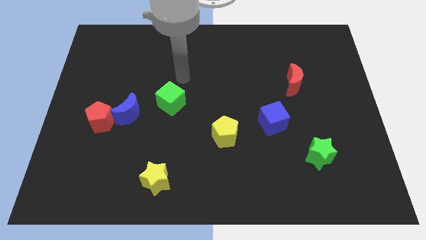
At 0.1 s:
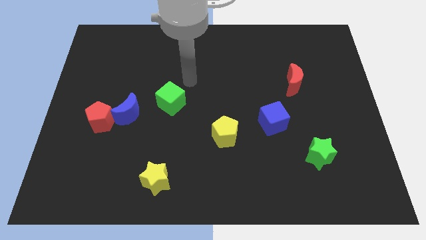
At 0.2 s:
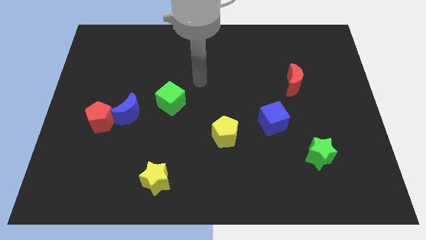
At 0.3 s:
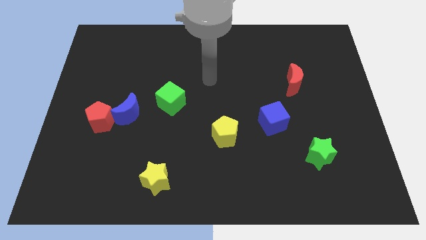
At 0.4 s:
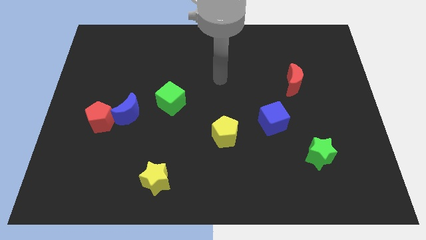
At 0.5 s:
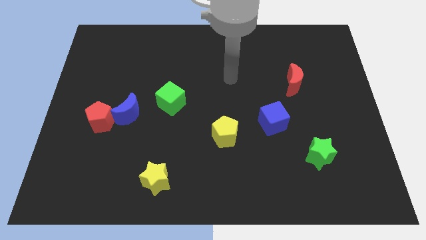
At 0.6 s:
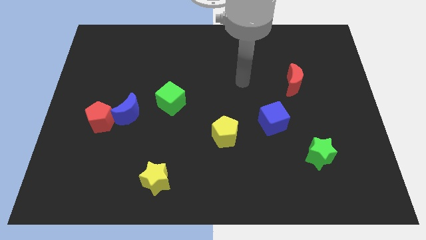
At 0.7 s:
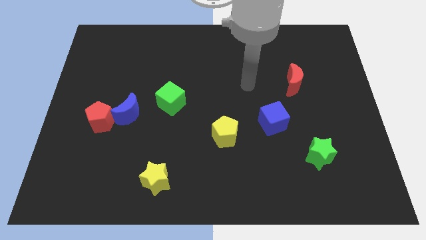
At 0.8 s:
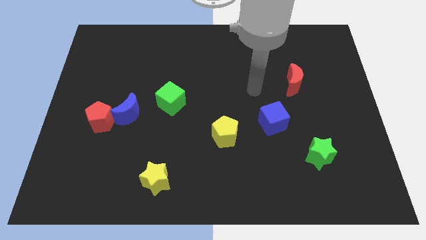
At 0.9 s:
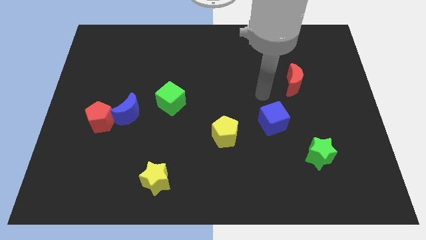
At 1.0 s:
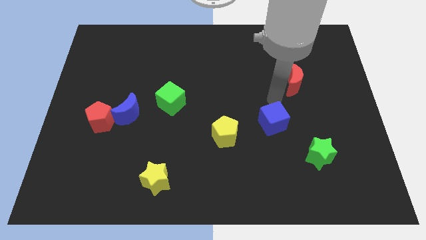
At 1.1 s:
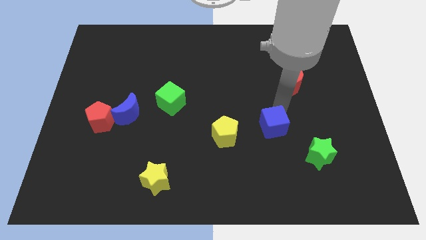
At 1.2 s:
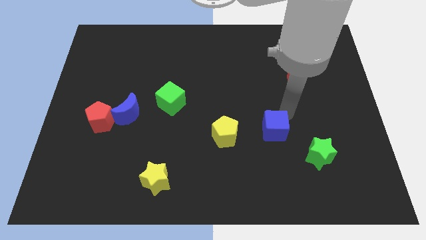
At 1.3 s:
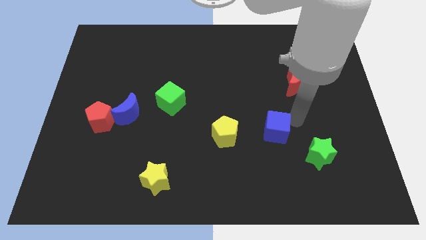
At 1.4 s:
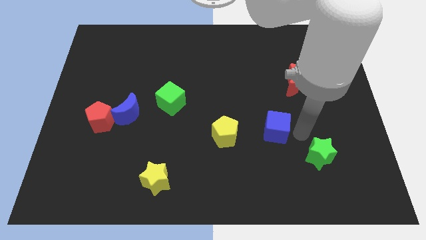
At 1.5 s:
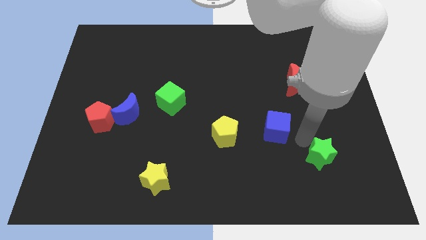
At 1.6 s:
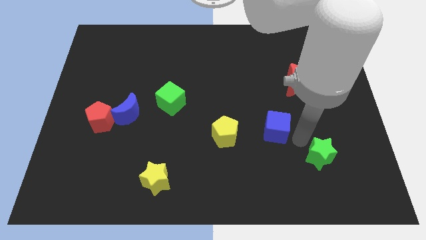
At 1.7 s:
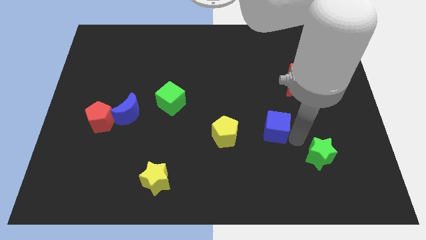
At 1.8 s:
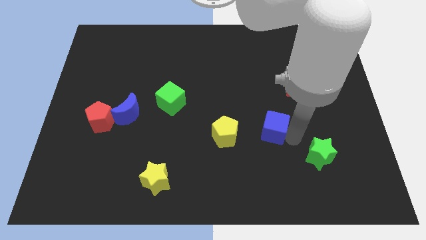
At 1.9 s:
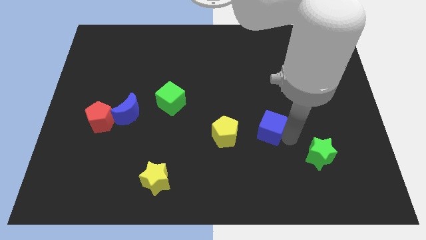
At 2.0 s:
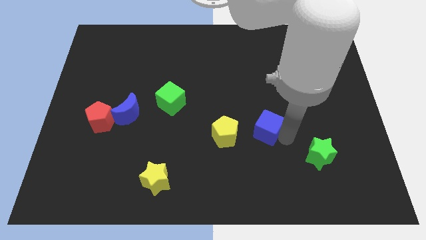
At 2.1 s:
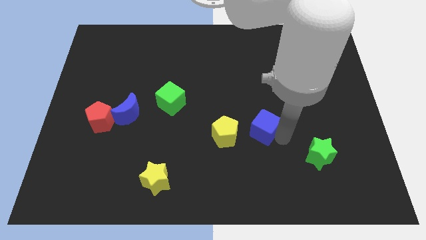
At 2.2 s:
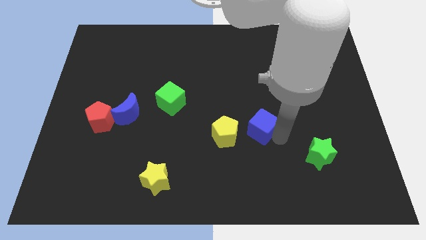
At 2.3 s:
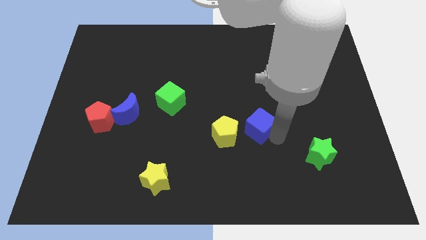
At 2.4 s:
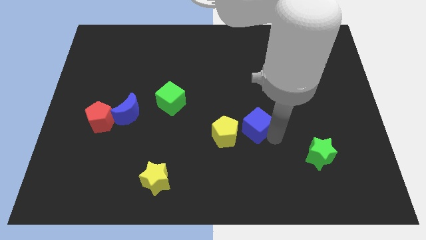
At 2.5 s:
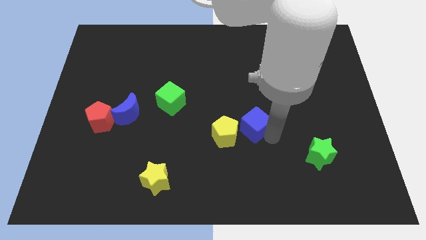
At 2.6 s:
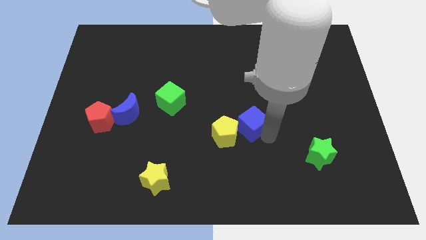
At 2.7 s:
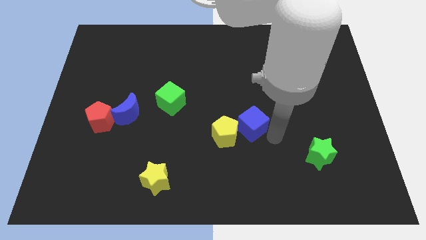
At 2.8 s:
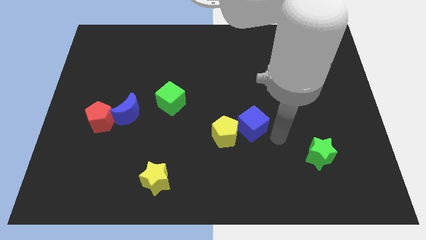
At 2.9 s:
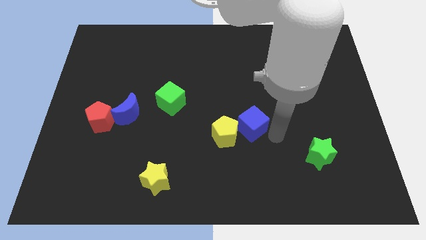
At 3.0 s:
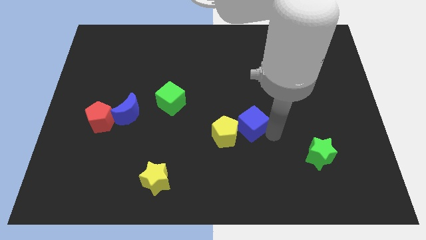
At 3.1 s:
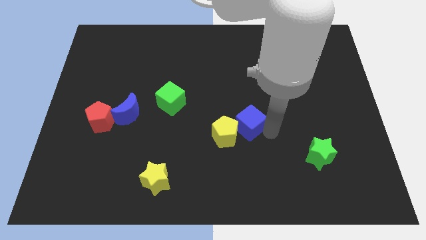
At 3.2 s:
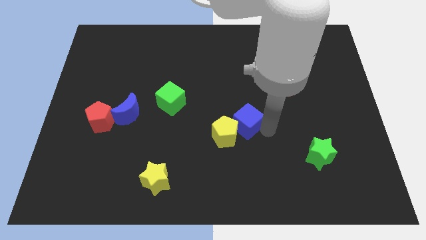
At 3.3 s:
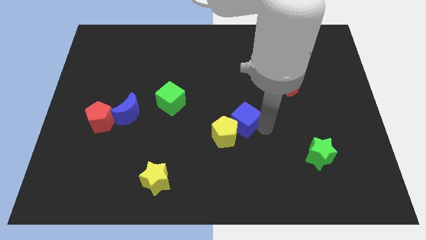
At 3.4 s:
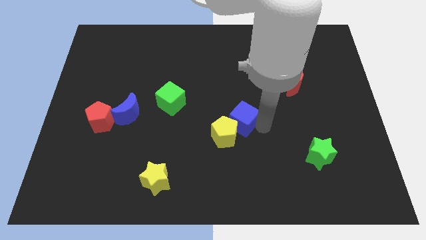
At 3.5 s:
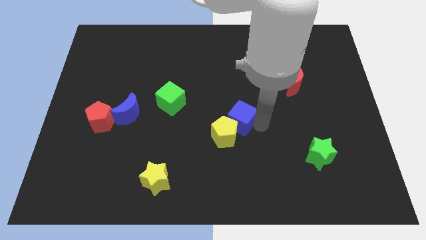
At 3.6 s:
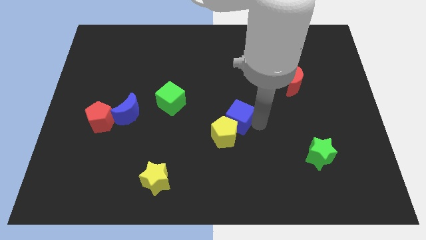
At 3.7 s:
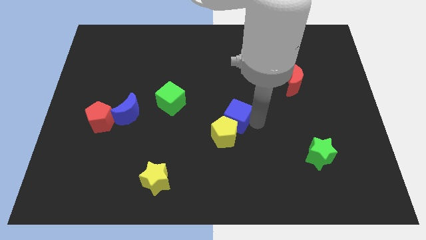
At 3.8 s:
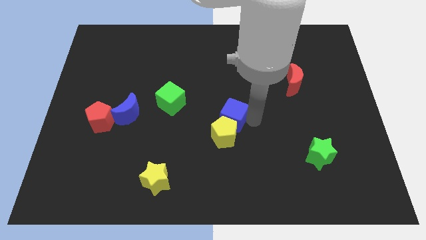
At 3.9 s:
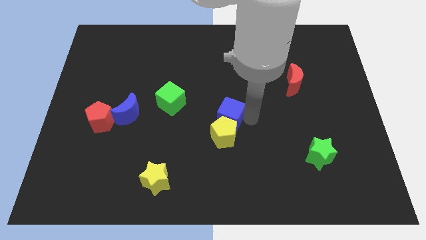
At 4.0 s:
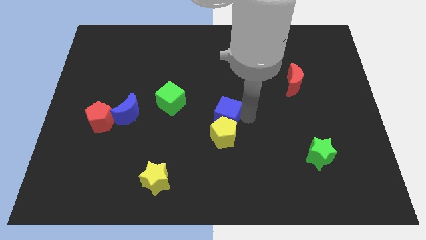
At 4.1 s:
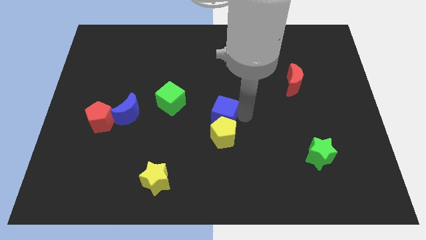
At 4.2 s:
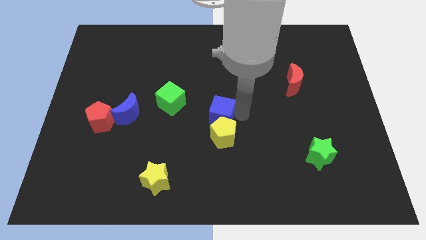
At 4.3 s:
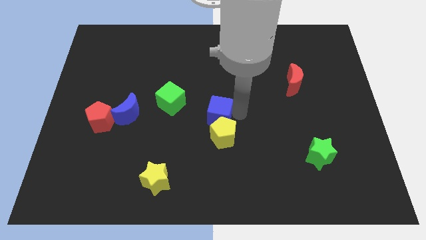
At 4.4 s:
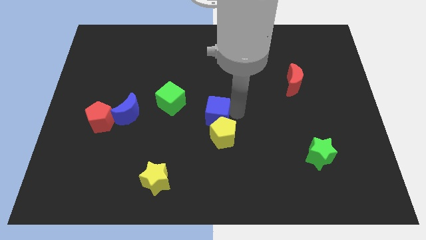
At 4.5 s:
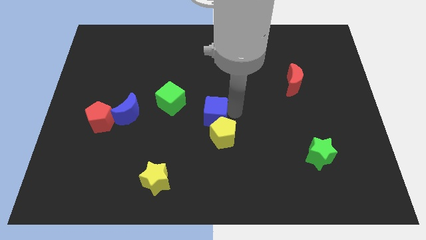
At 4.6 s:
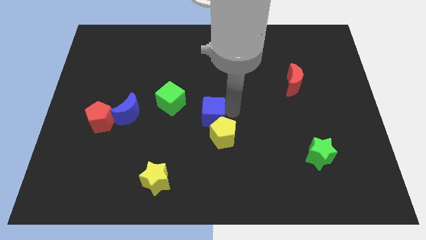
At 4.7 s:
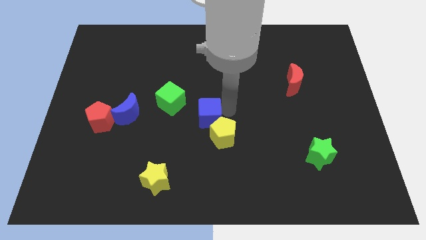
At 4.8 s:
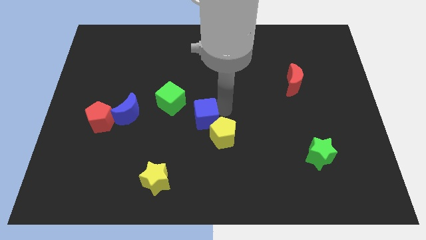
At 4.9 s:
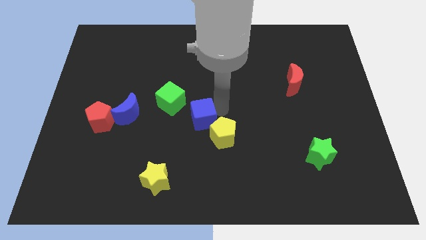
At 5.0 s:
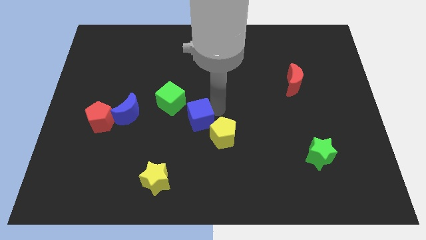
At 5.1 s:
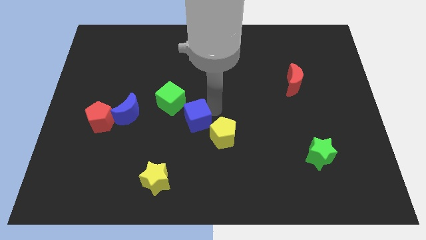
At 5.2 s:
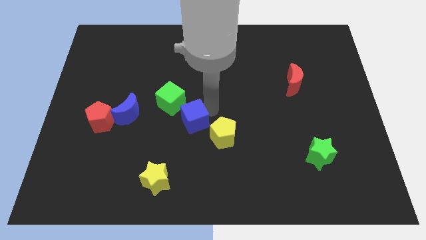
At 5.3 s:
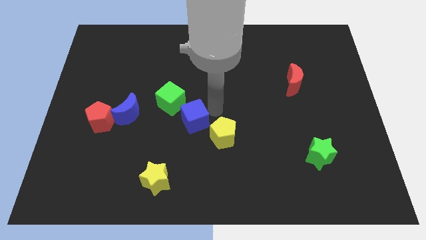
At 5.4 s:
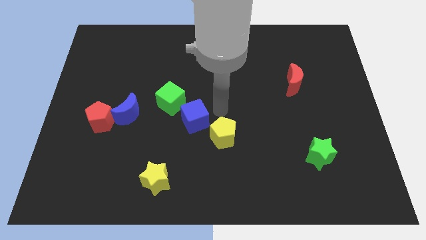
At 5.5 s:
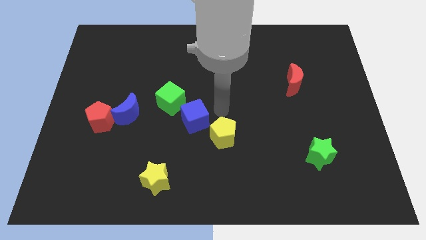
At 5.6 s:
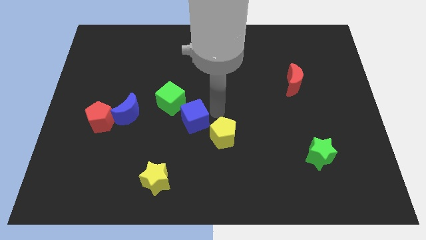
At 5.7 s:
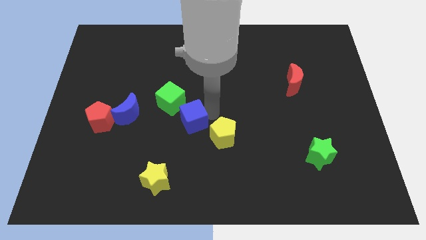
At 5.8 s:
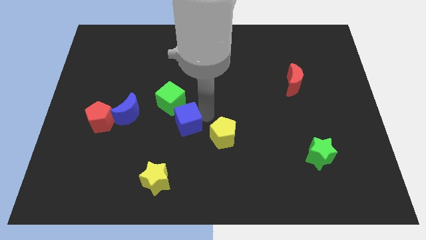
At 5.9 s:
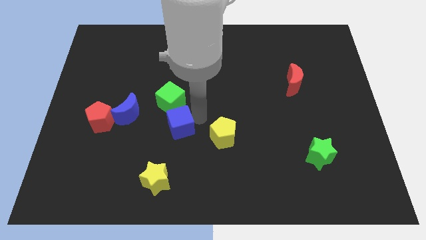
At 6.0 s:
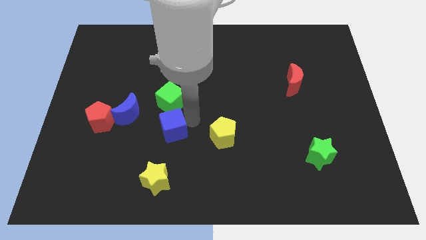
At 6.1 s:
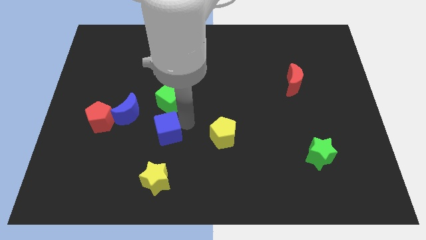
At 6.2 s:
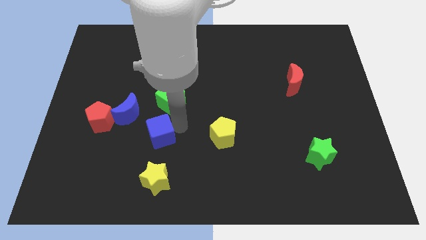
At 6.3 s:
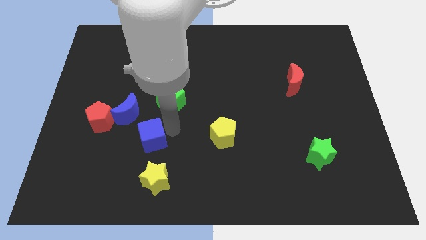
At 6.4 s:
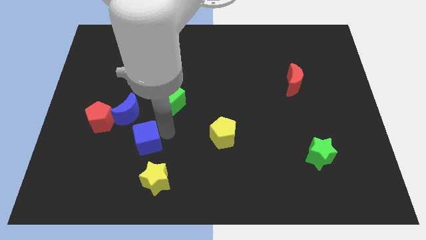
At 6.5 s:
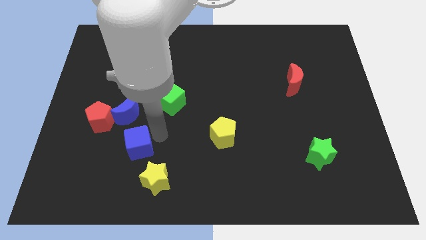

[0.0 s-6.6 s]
put the blue cube to the bottom side of the blue moon
